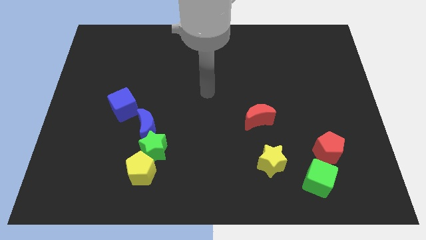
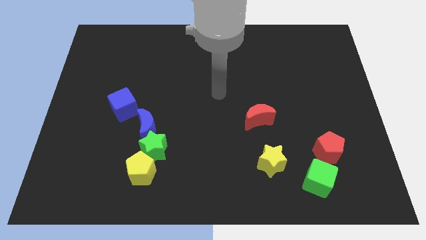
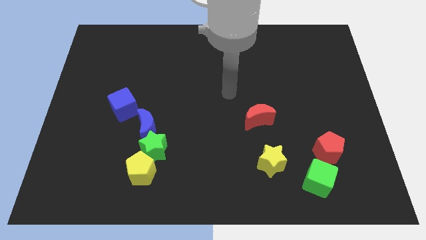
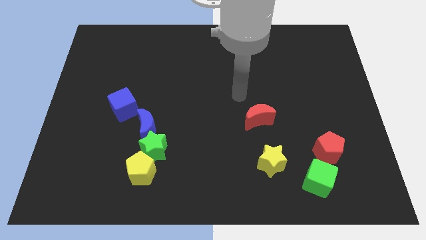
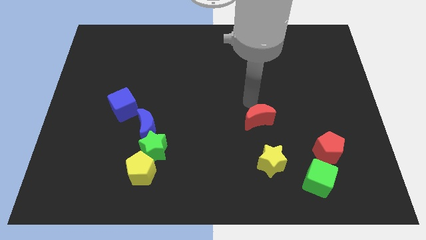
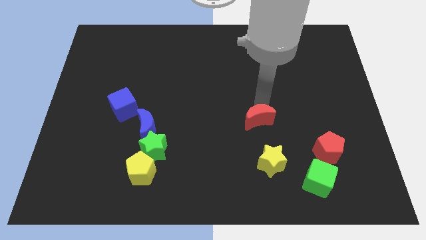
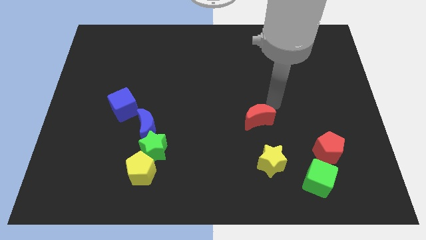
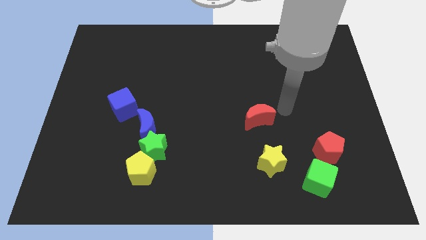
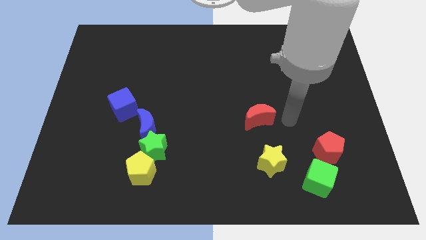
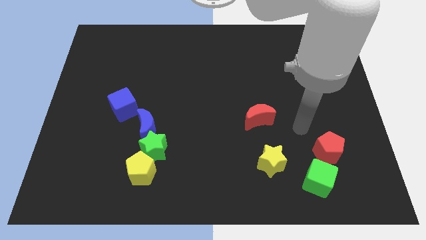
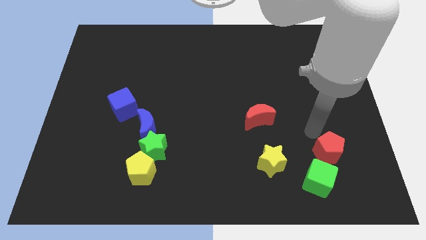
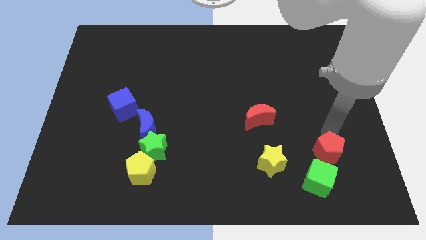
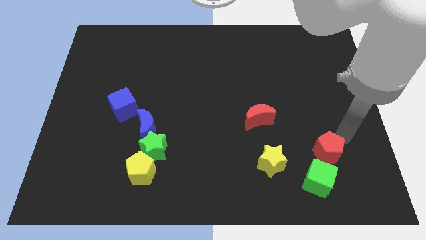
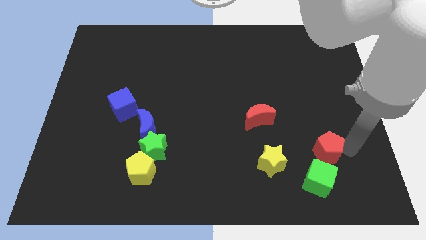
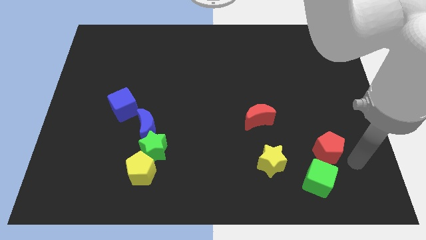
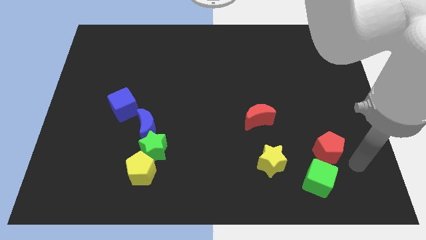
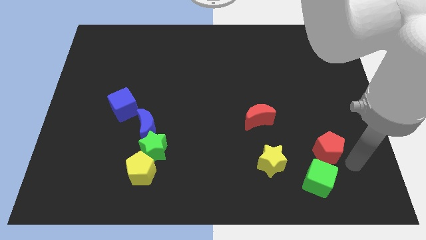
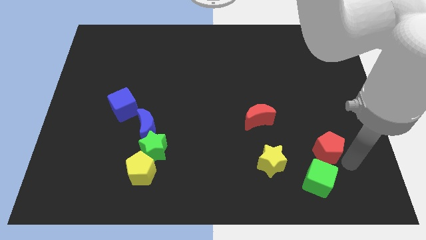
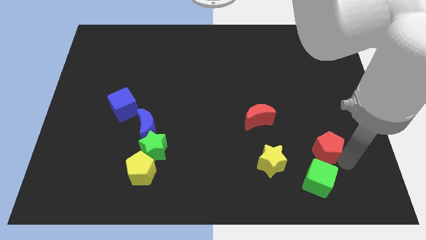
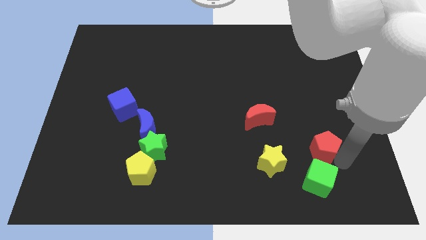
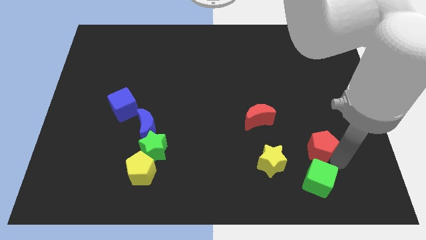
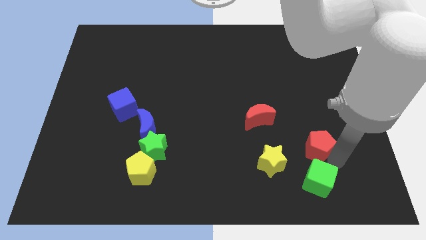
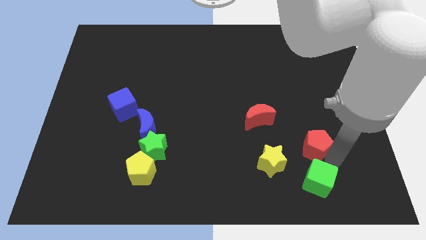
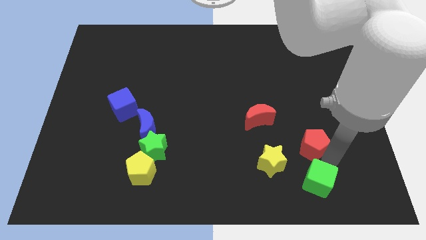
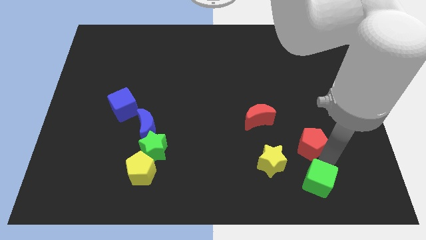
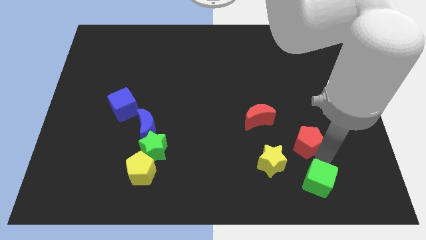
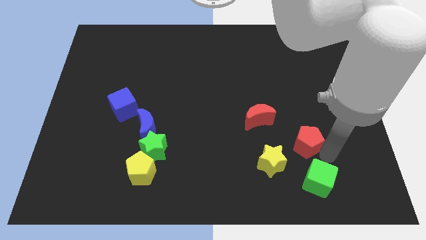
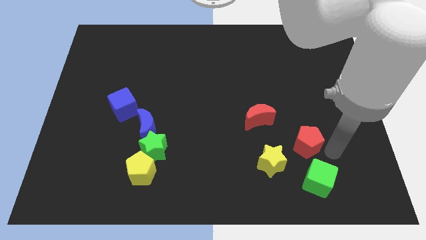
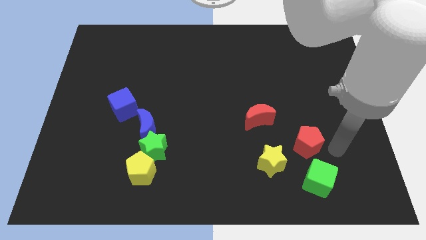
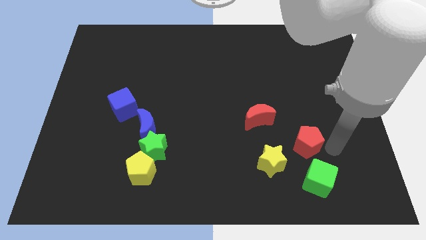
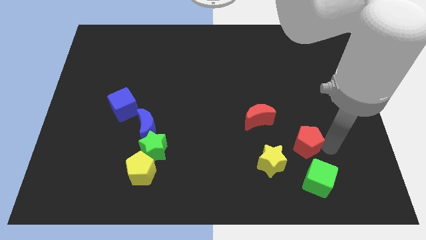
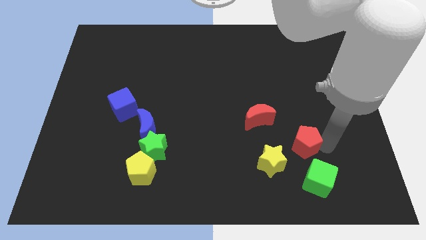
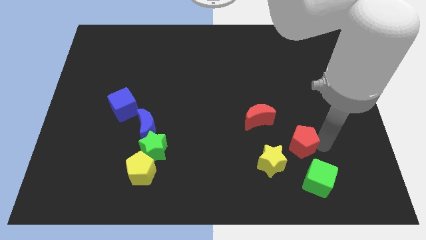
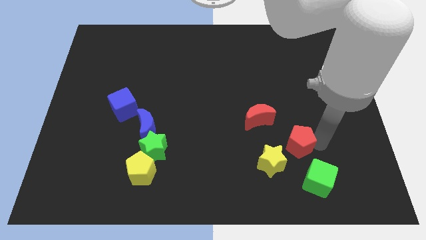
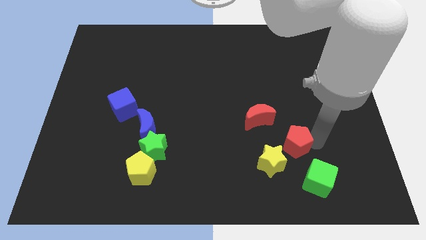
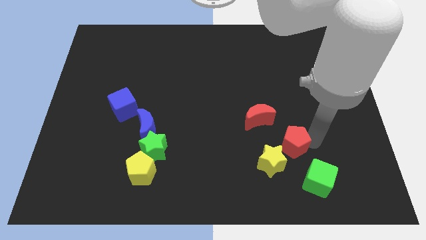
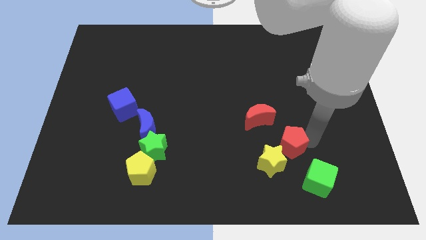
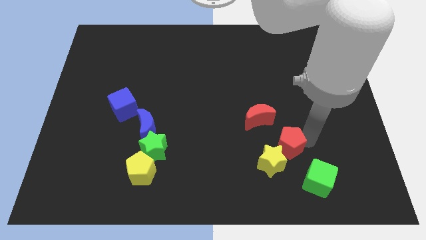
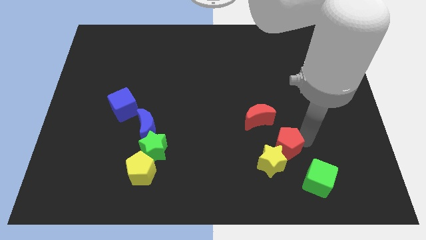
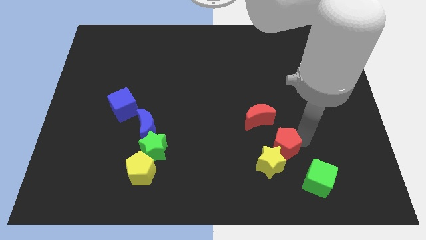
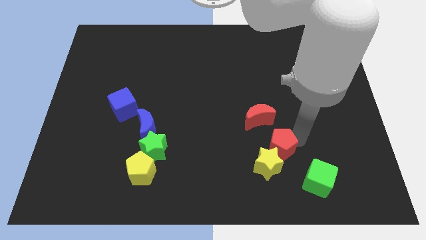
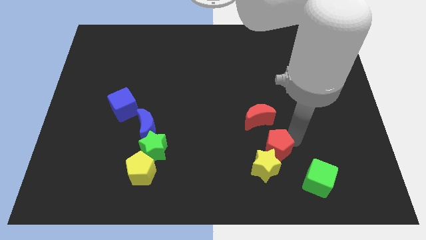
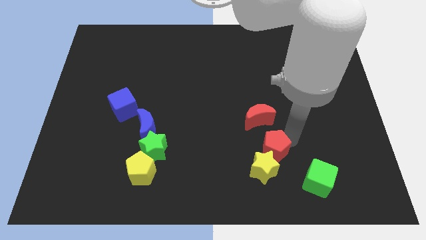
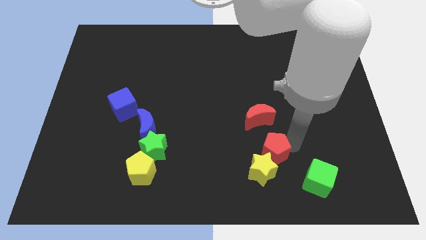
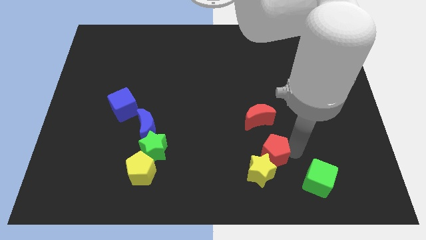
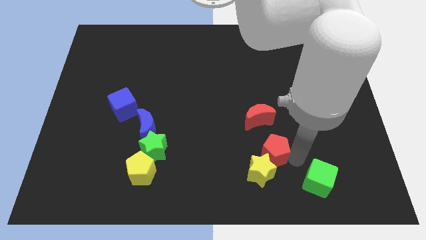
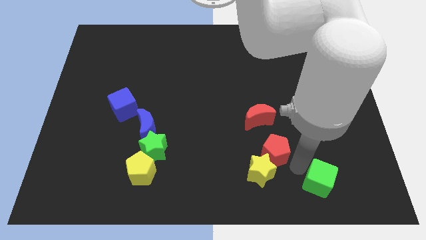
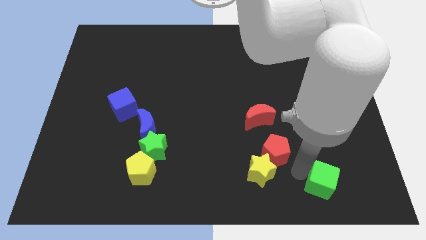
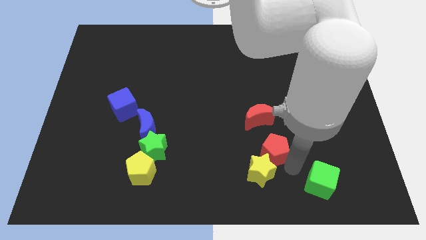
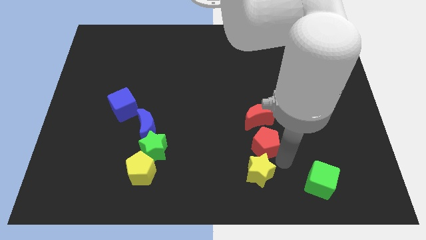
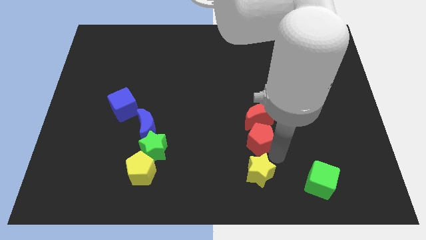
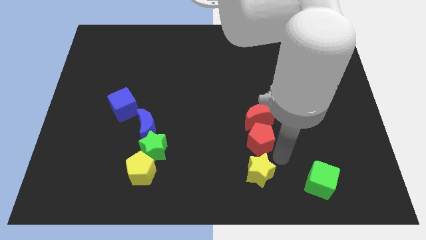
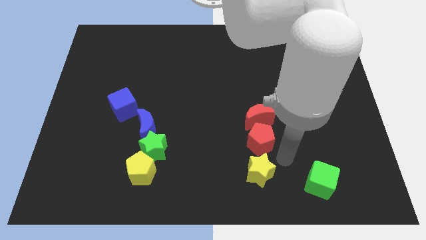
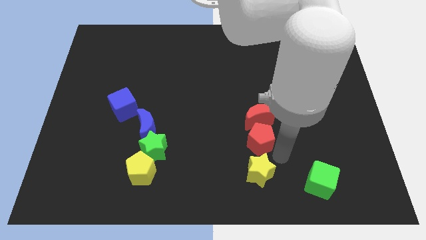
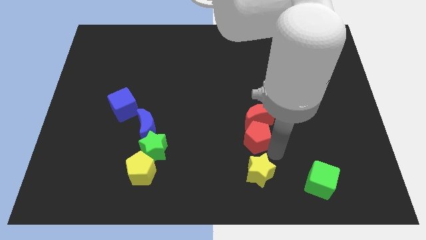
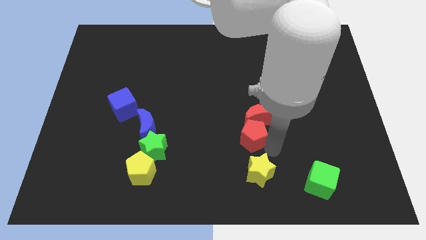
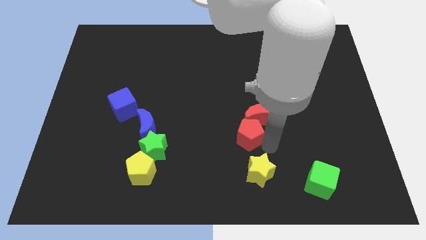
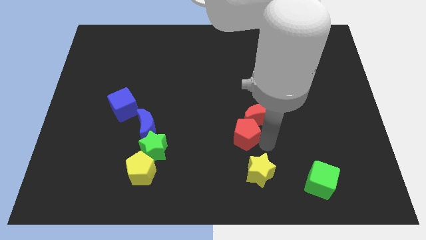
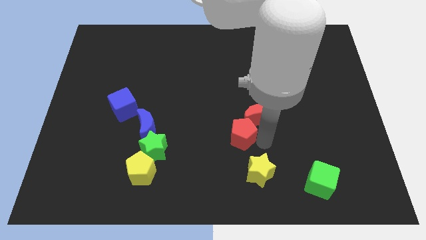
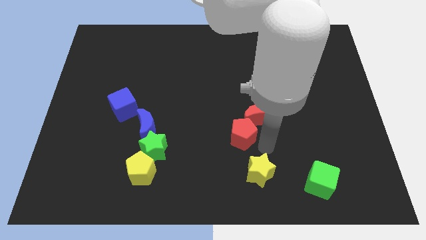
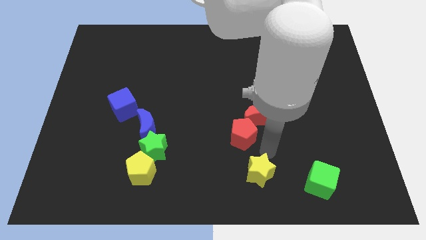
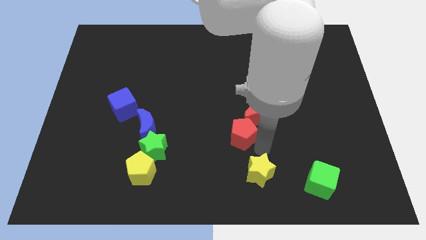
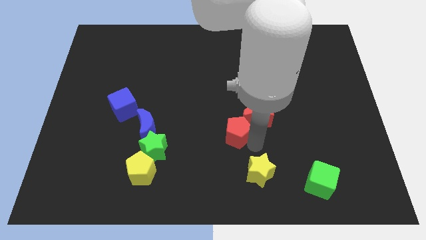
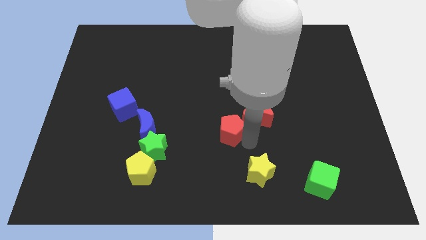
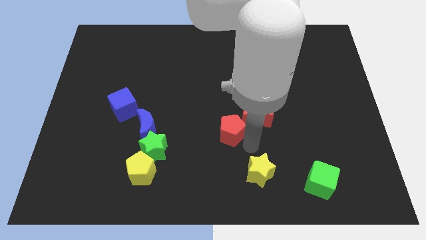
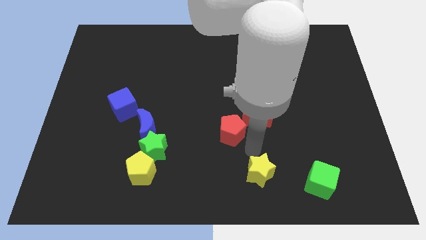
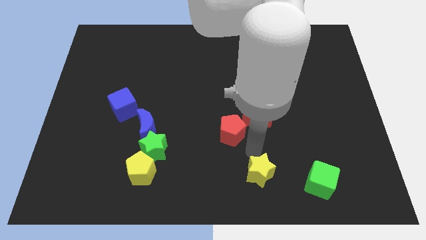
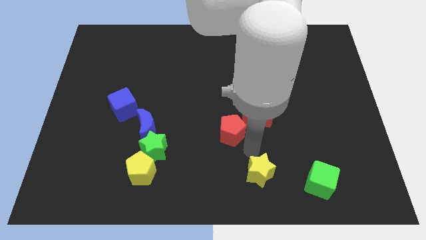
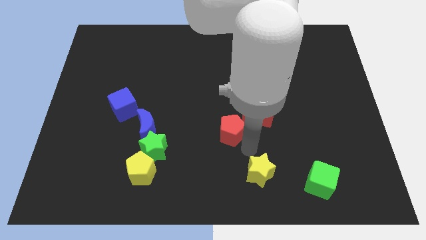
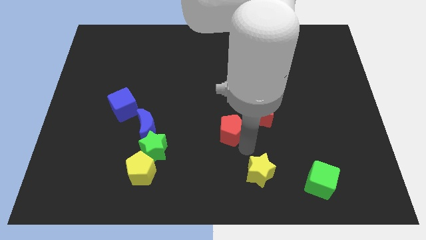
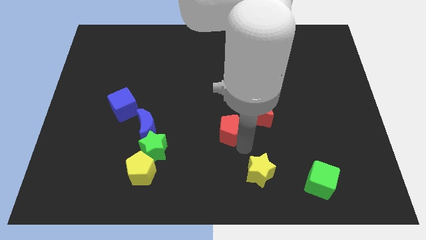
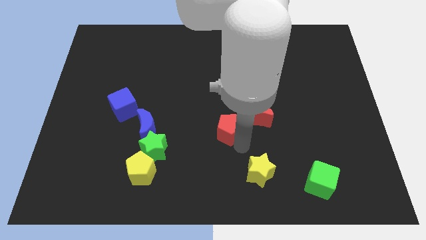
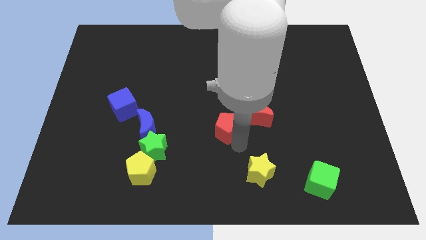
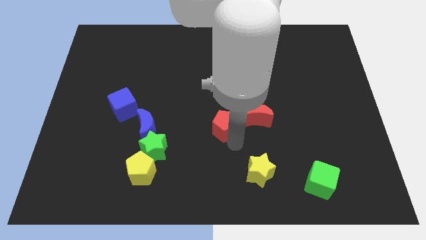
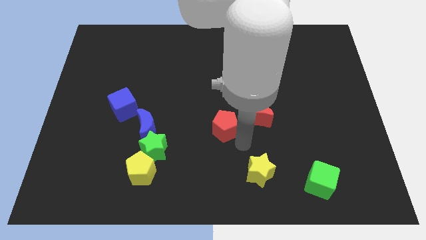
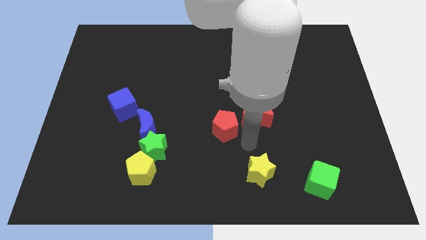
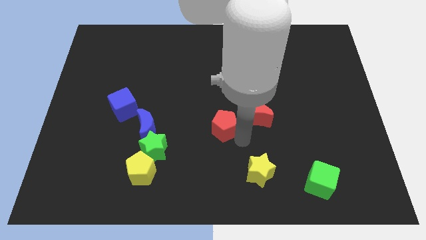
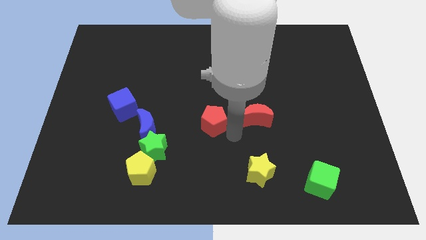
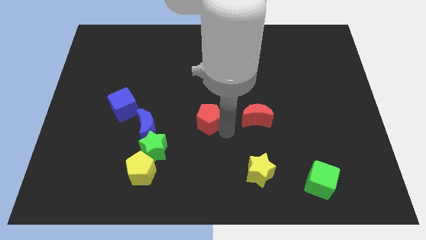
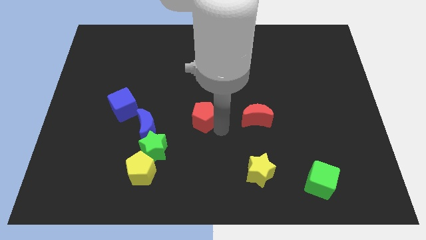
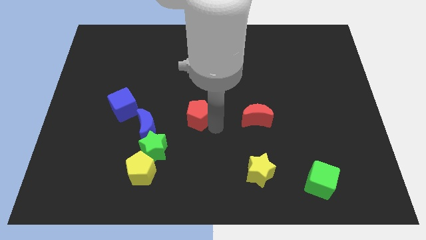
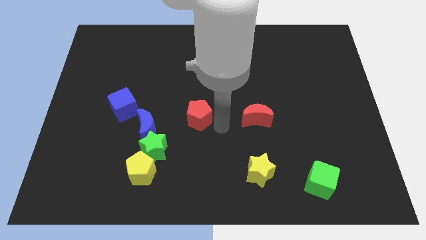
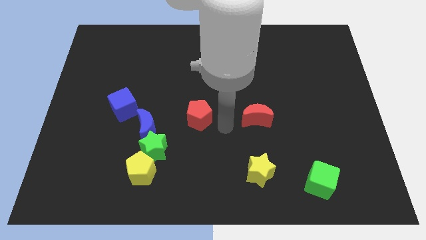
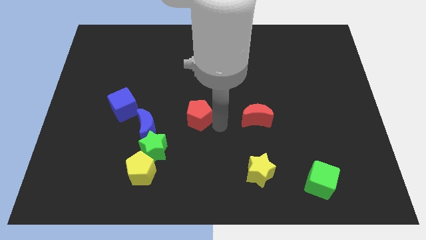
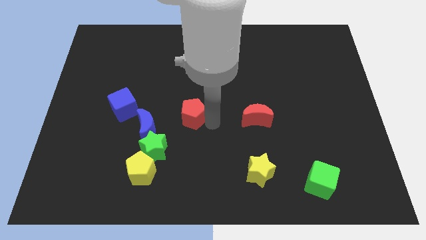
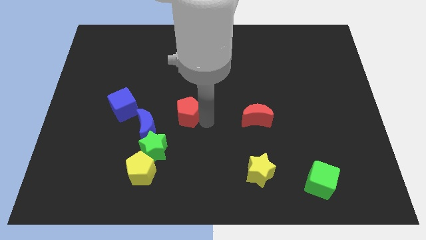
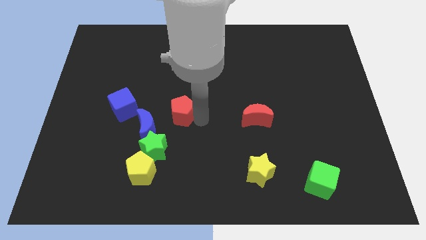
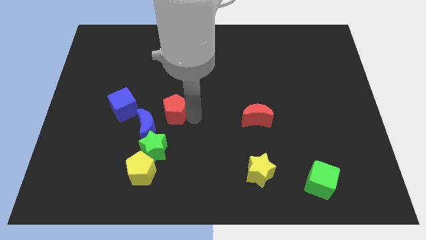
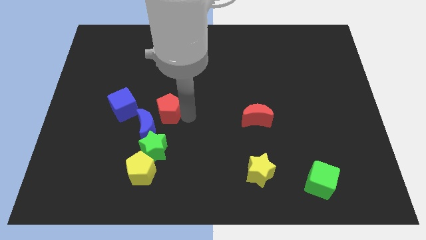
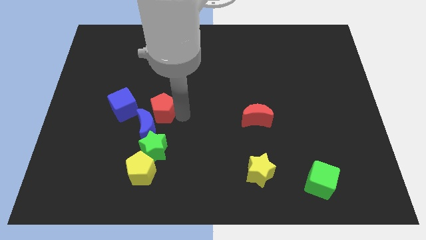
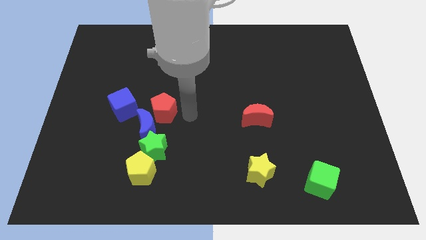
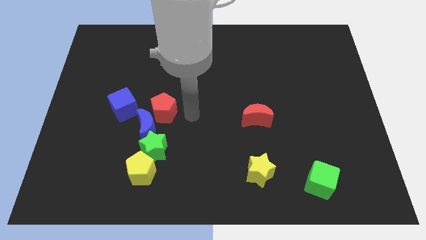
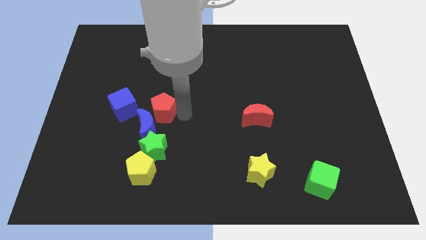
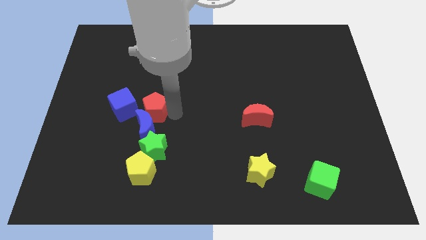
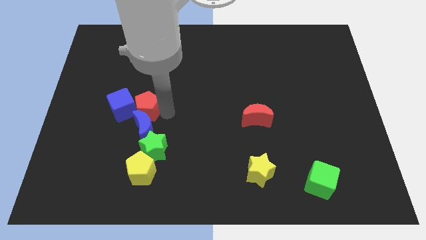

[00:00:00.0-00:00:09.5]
push the red pentagon towards the blue cube
